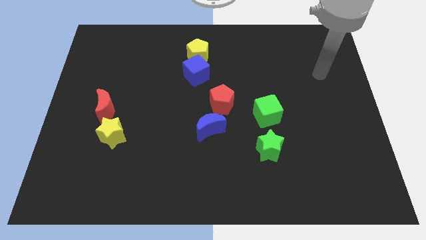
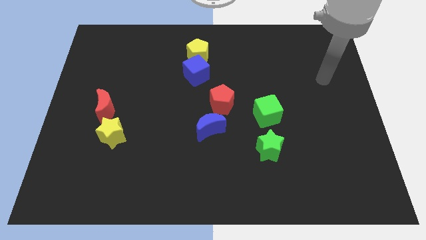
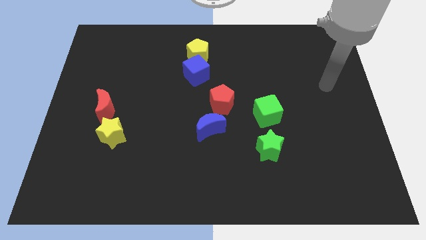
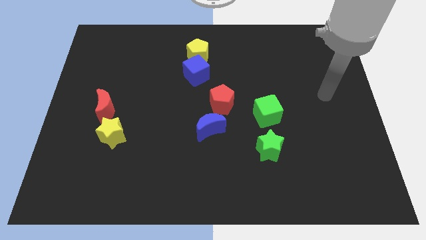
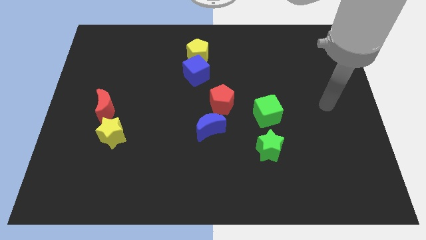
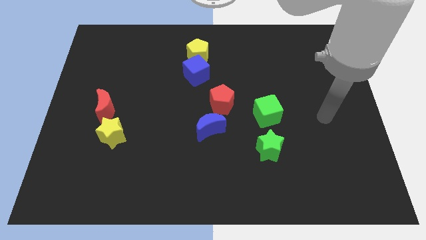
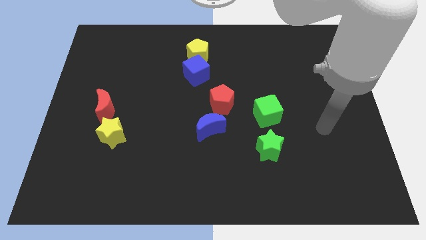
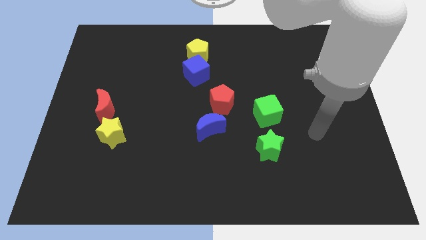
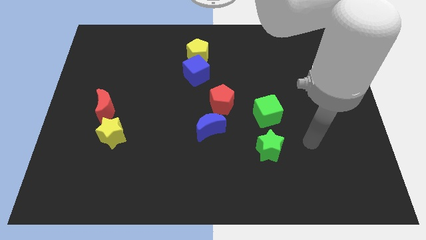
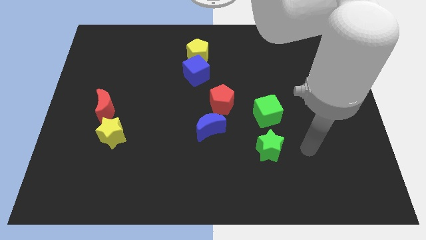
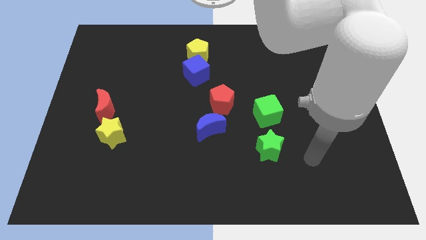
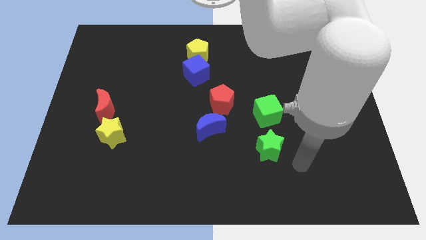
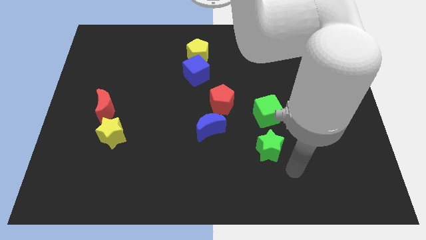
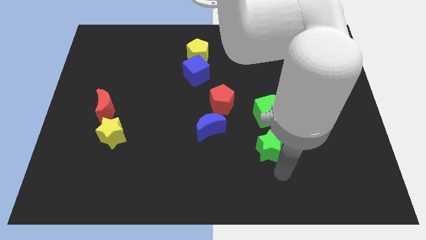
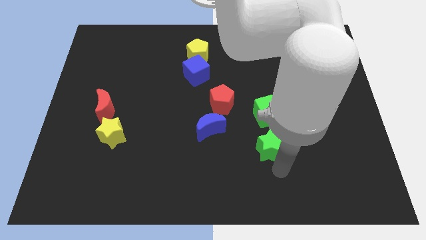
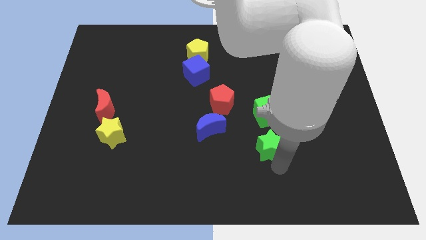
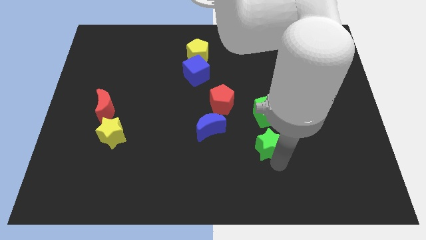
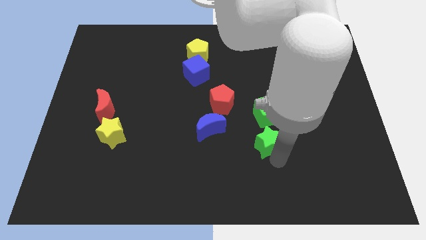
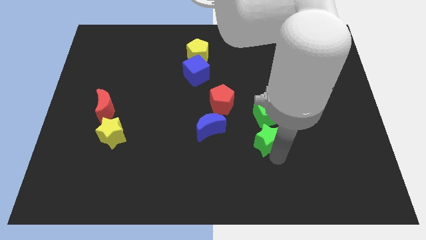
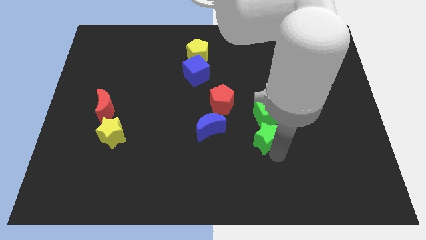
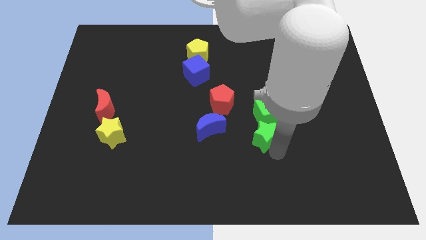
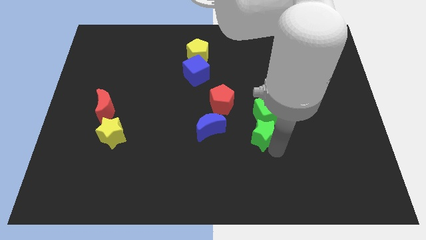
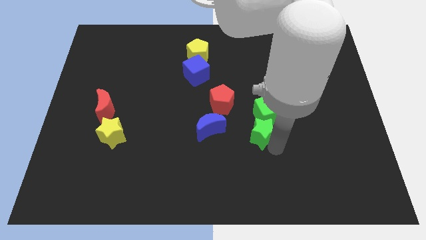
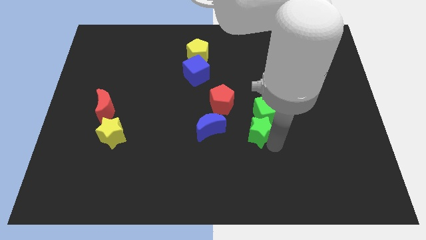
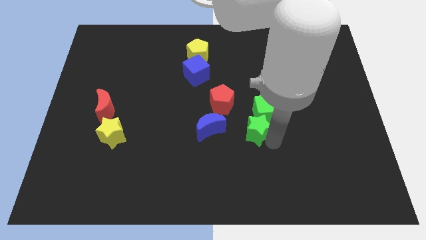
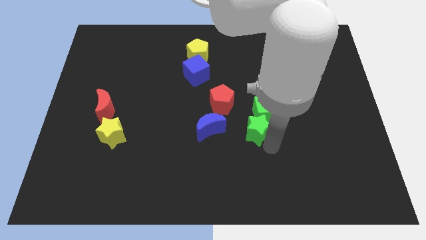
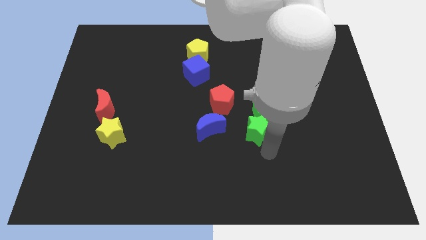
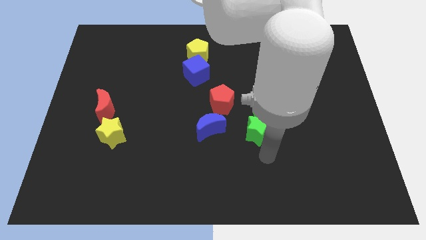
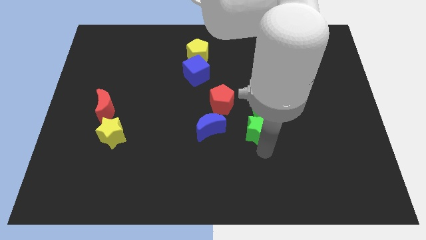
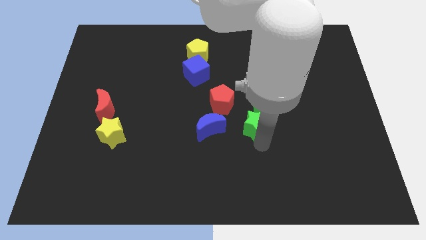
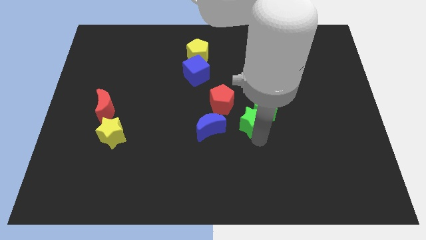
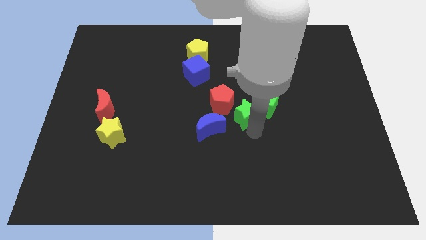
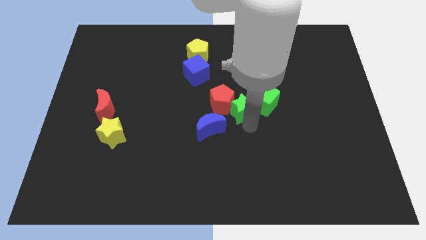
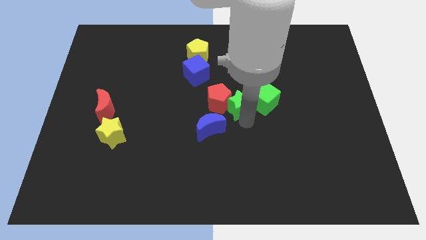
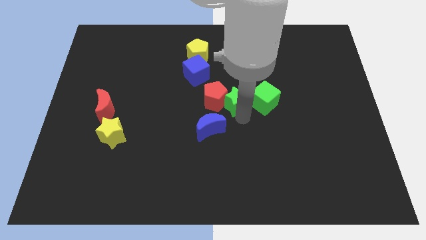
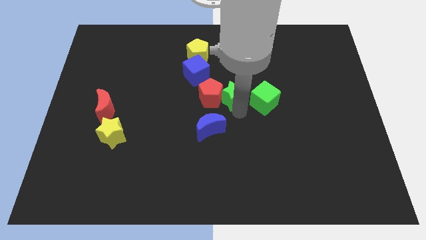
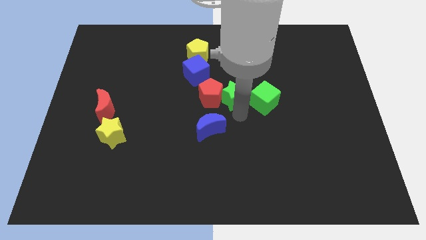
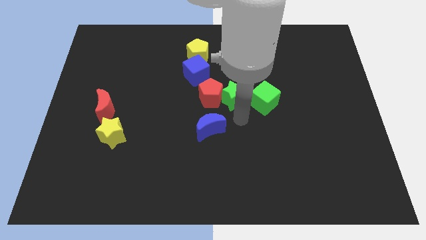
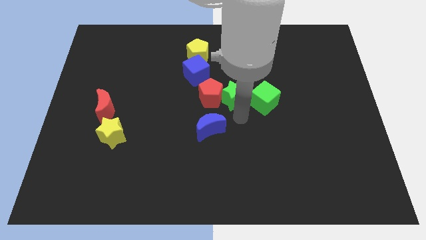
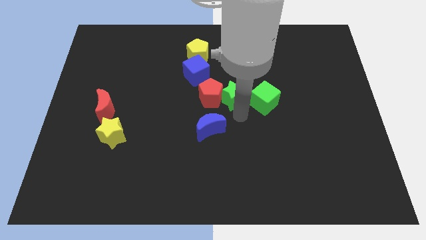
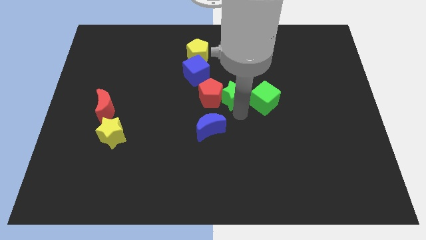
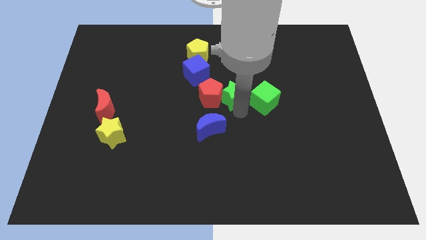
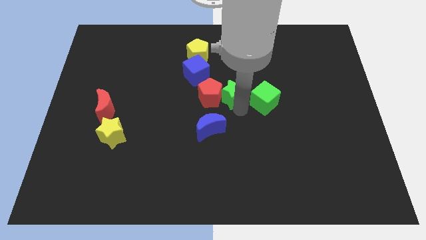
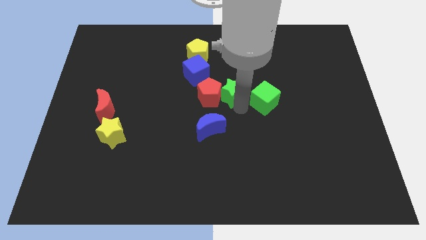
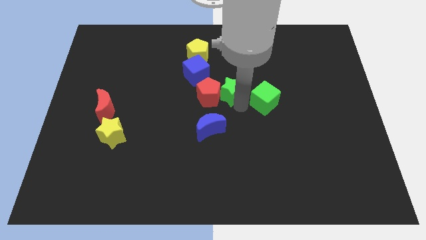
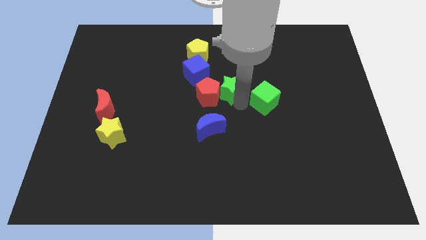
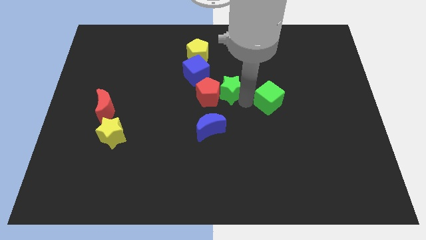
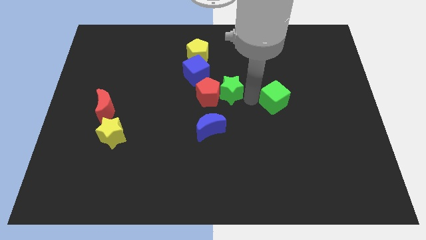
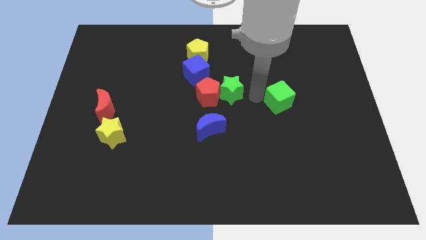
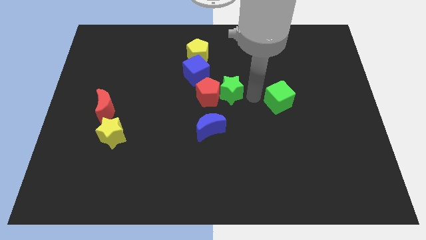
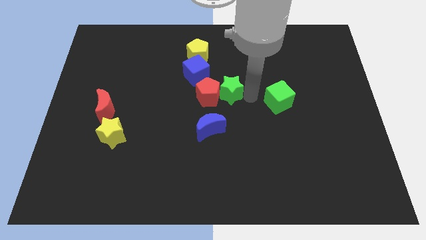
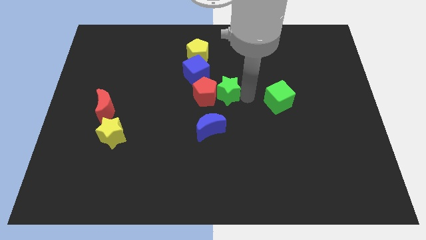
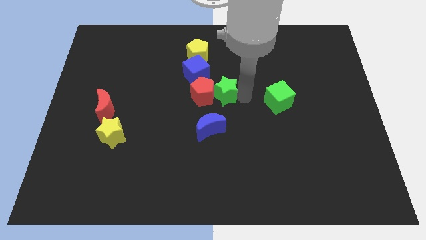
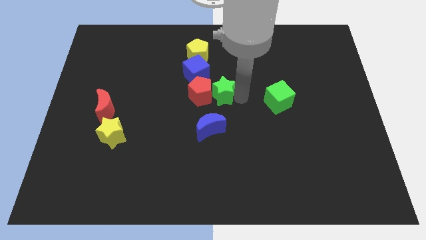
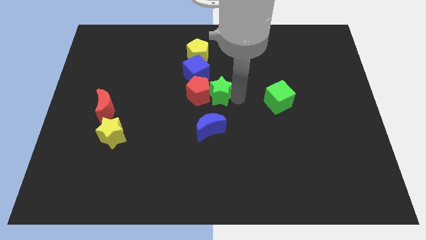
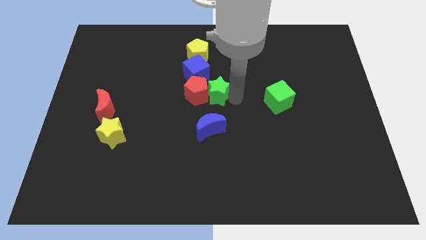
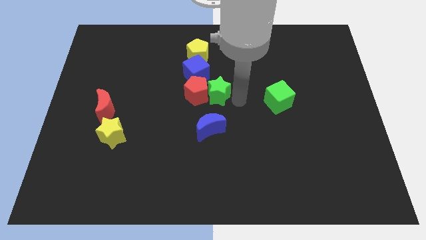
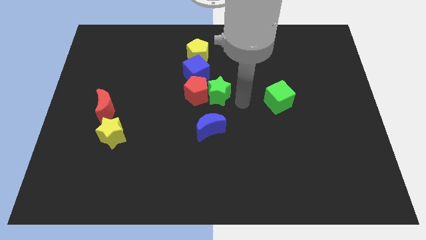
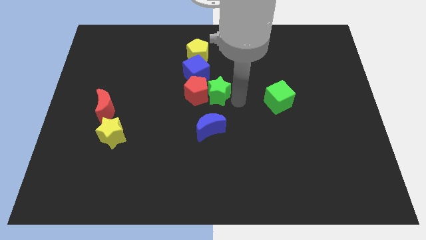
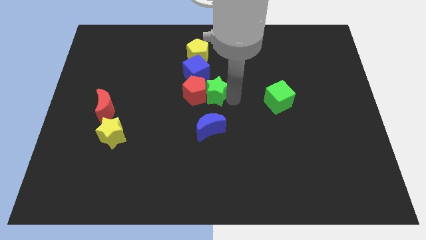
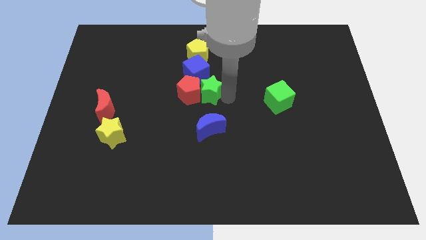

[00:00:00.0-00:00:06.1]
move the green star diagonally upwards and left

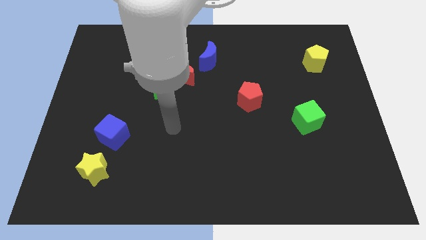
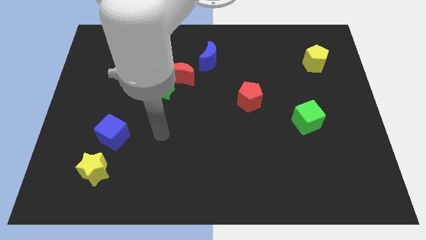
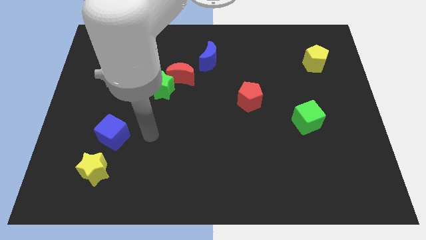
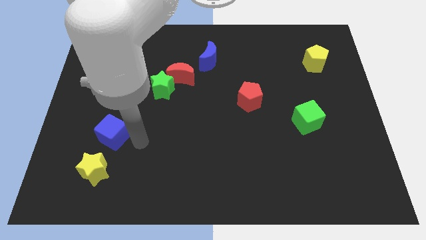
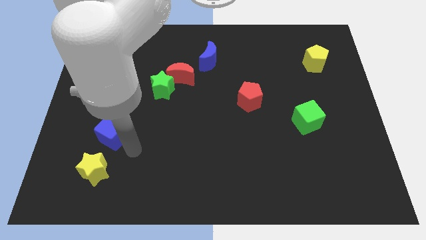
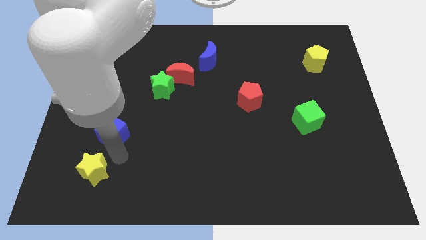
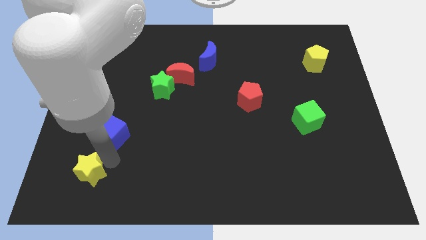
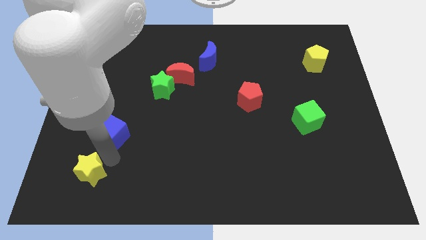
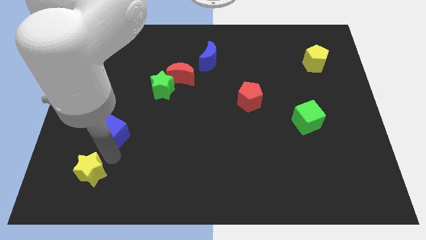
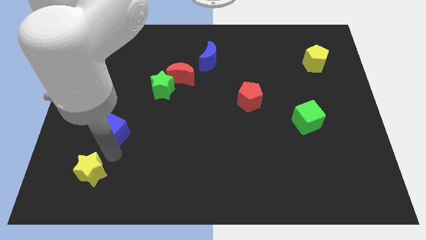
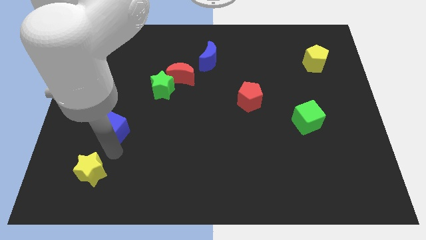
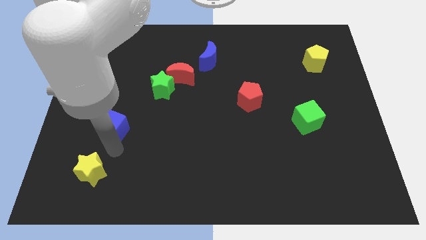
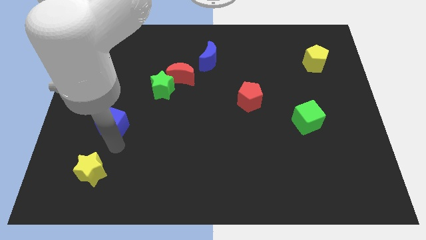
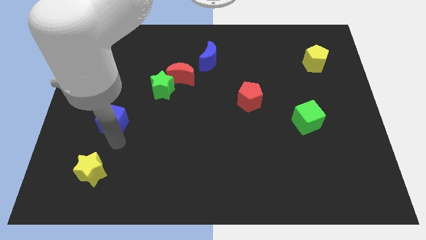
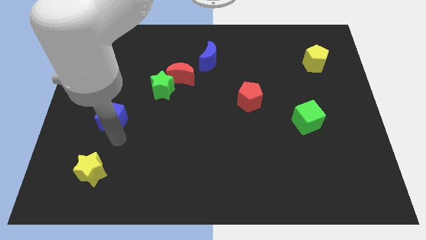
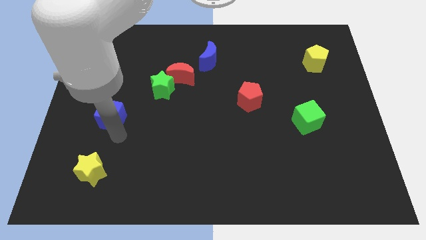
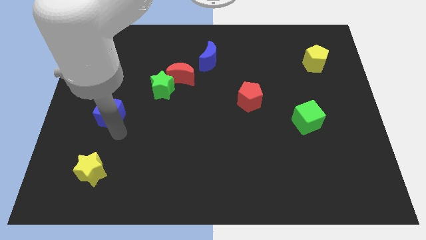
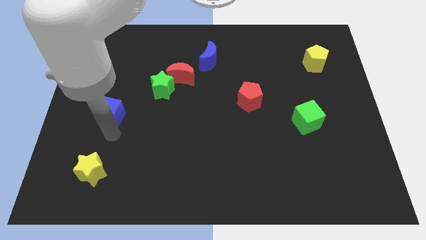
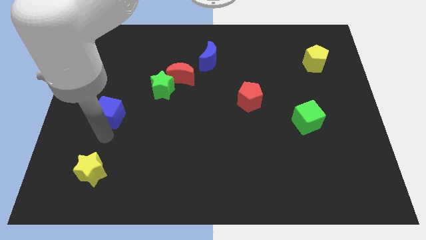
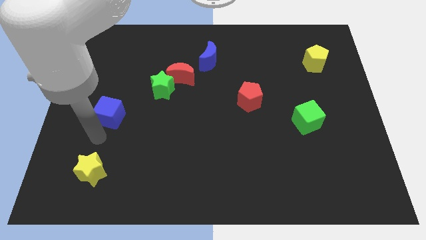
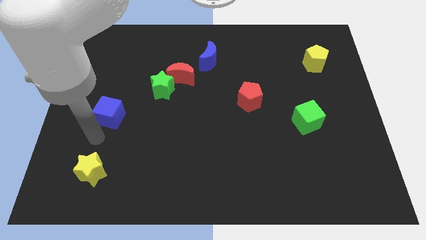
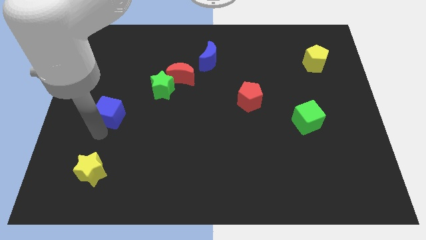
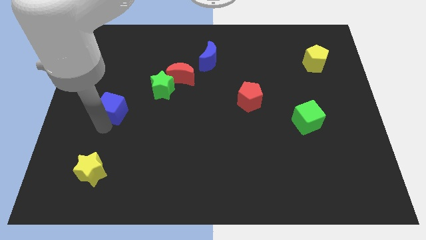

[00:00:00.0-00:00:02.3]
move the blue cube up slightly
